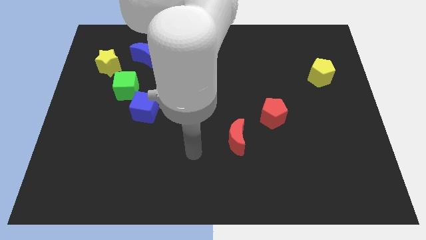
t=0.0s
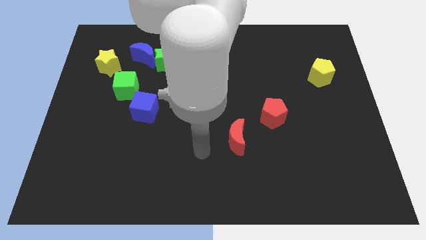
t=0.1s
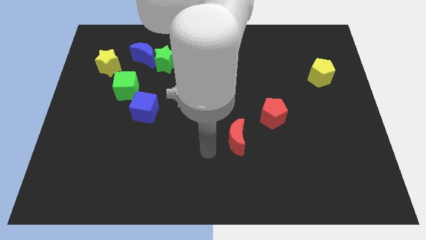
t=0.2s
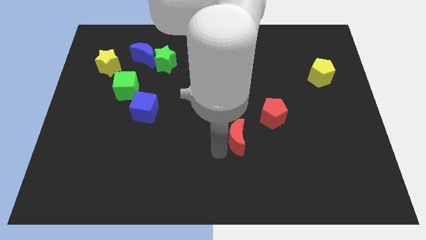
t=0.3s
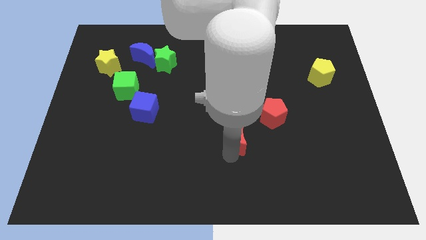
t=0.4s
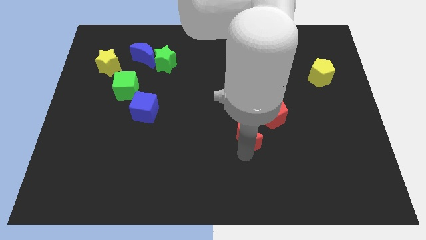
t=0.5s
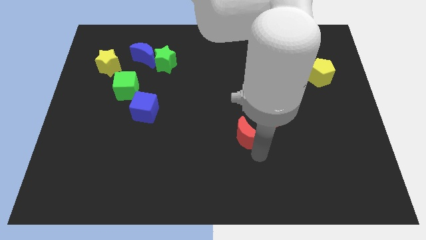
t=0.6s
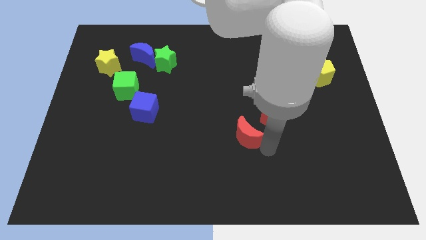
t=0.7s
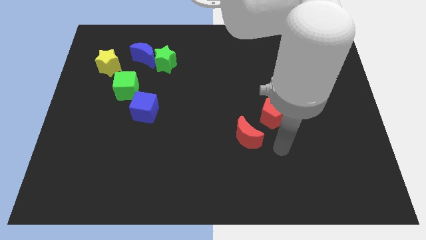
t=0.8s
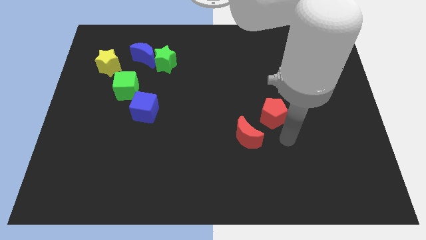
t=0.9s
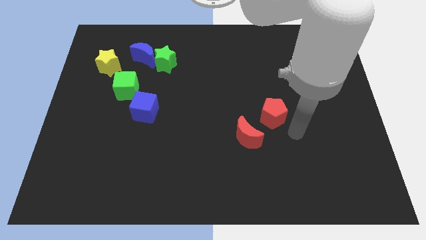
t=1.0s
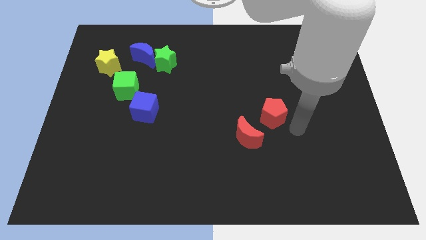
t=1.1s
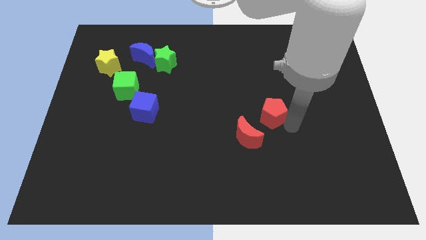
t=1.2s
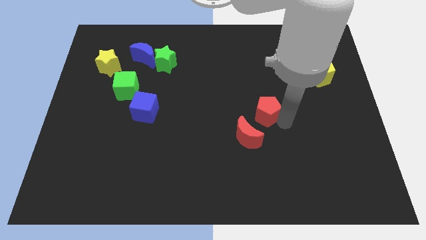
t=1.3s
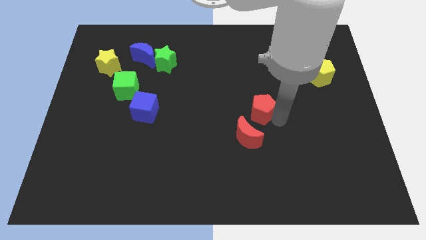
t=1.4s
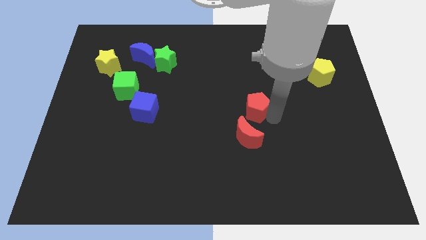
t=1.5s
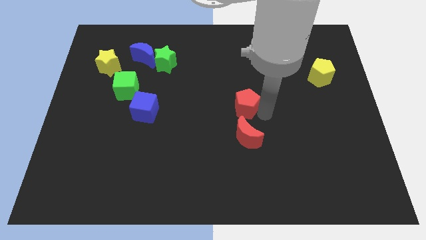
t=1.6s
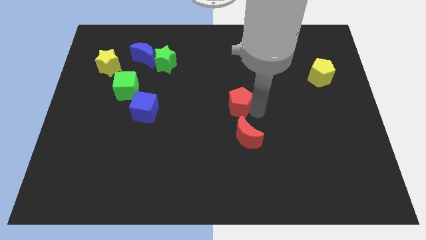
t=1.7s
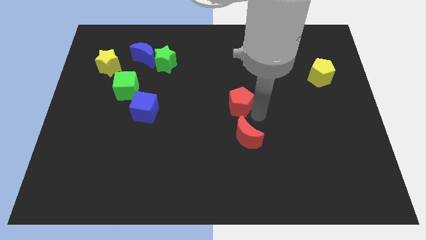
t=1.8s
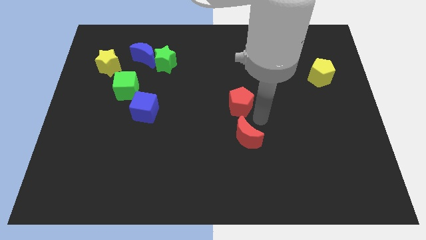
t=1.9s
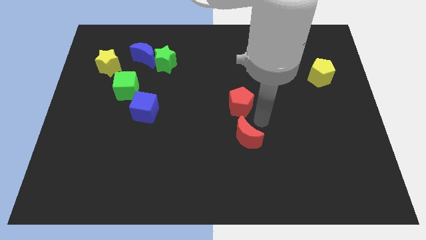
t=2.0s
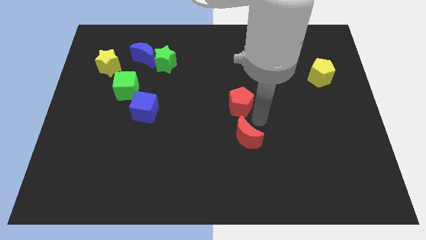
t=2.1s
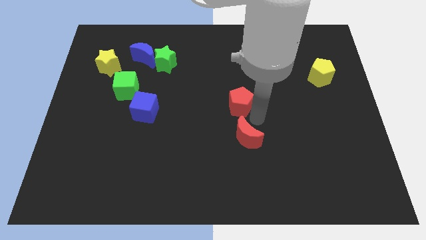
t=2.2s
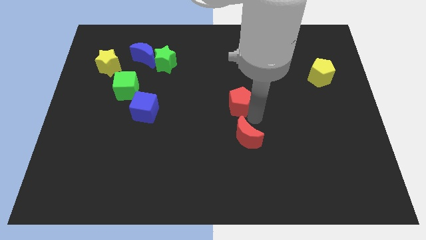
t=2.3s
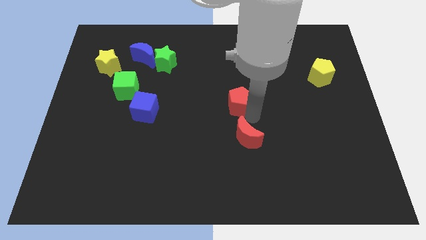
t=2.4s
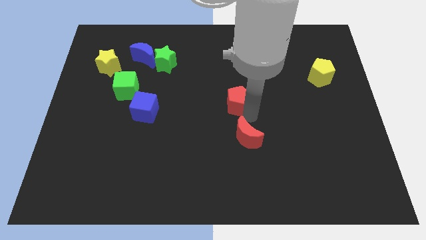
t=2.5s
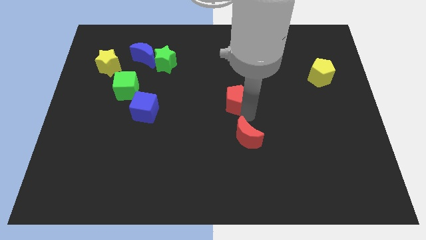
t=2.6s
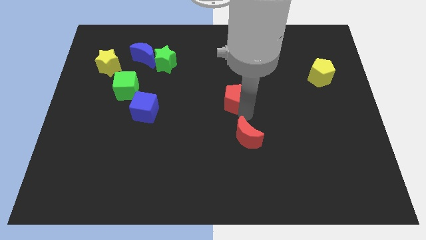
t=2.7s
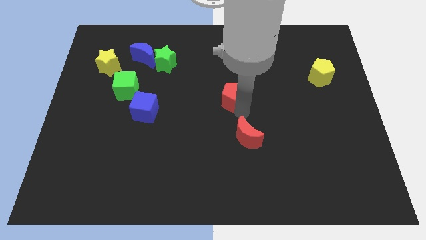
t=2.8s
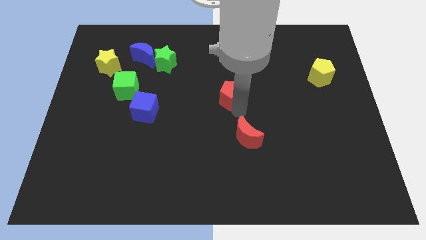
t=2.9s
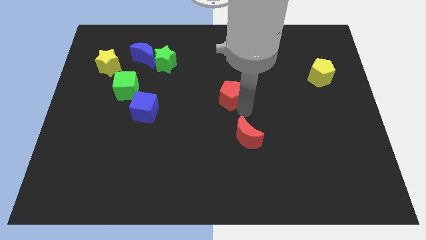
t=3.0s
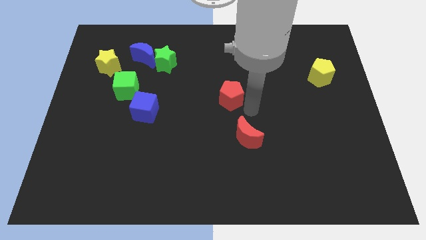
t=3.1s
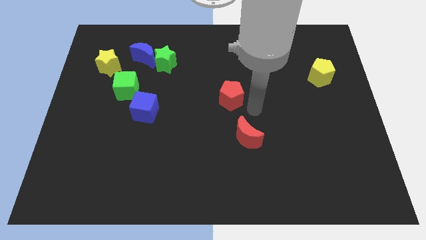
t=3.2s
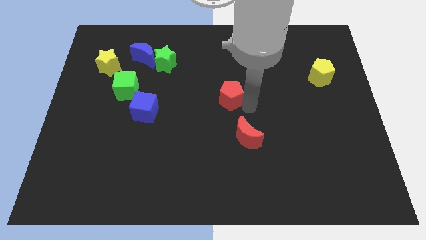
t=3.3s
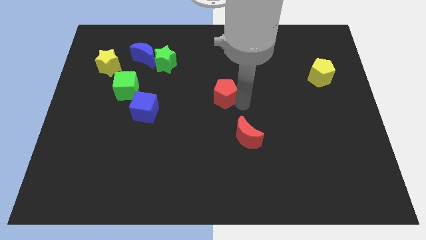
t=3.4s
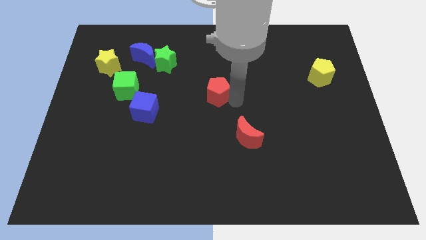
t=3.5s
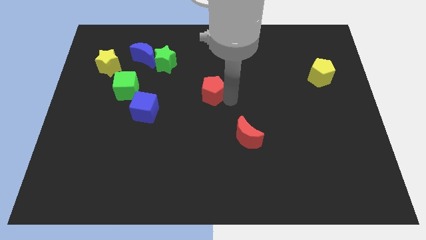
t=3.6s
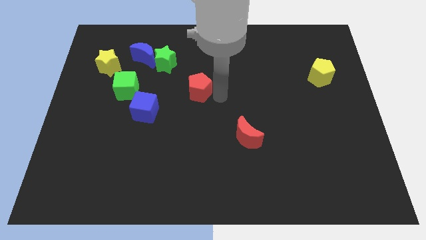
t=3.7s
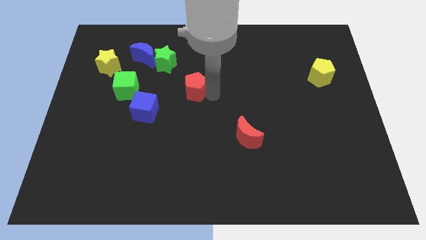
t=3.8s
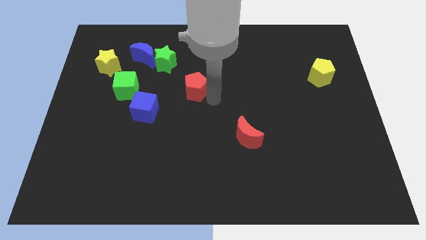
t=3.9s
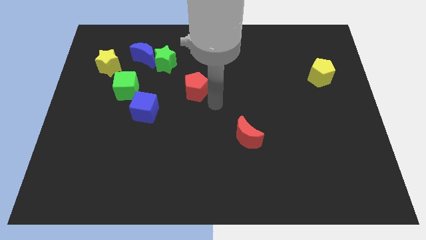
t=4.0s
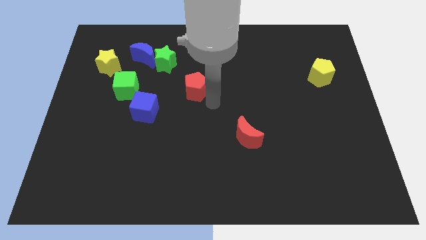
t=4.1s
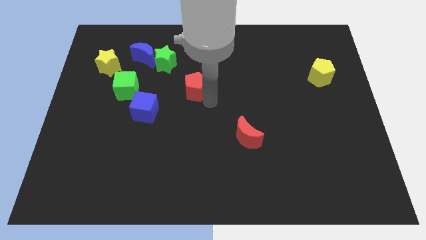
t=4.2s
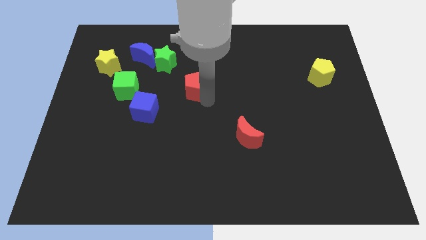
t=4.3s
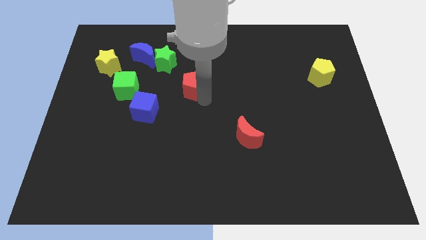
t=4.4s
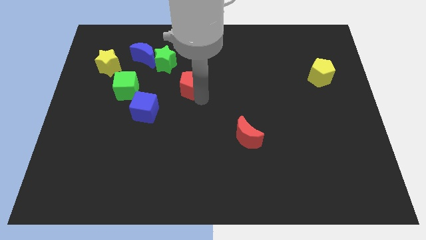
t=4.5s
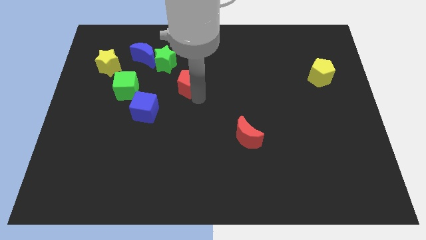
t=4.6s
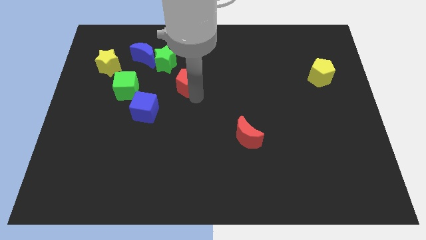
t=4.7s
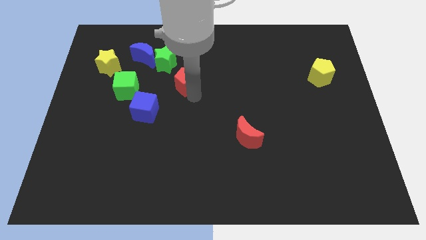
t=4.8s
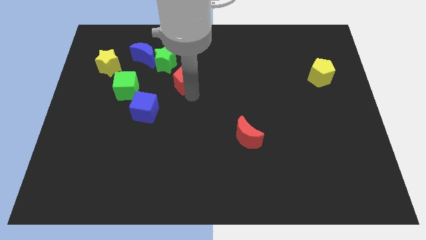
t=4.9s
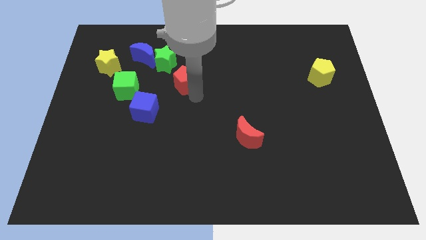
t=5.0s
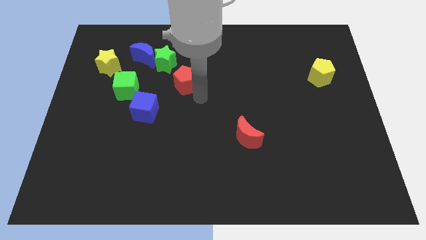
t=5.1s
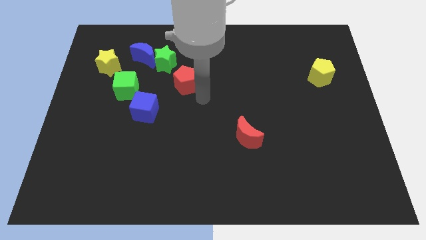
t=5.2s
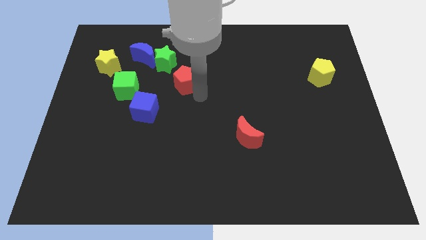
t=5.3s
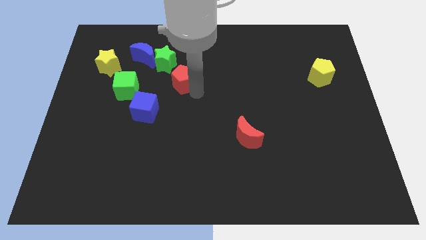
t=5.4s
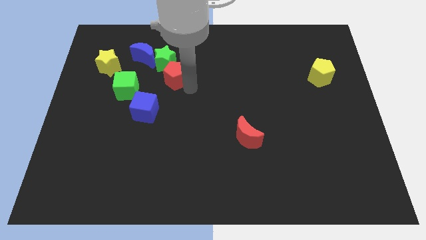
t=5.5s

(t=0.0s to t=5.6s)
put the red pentagon next to the green star

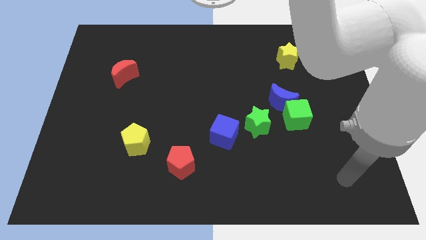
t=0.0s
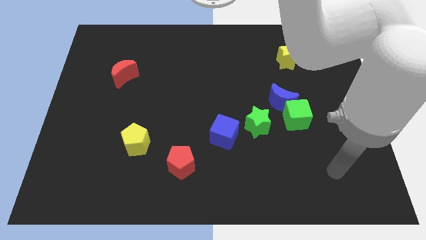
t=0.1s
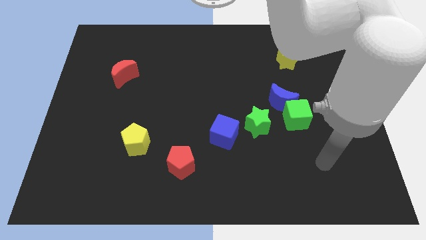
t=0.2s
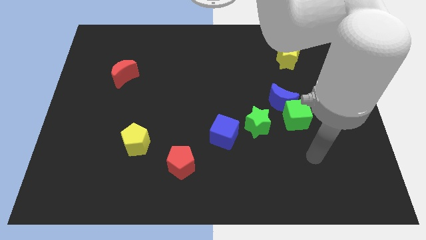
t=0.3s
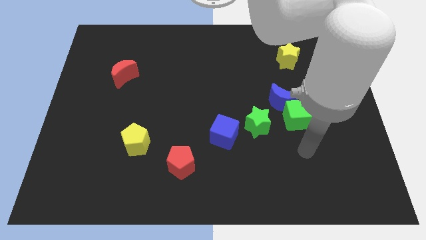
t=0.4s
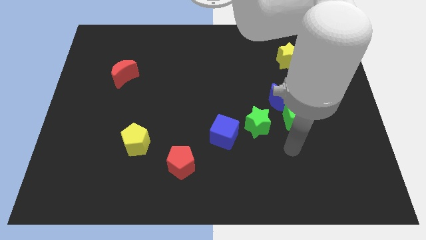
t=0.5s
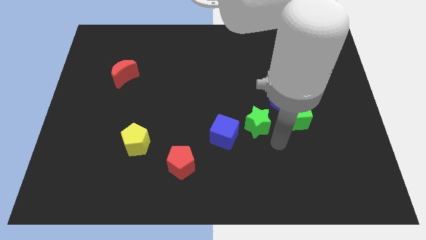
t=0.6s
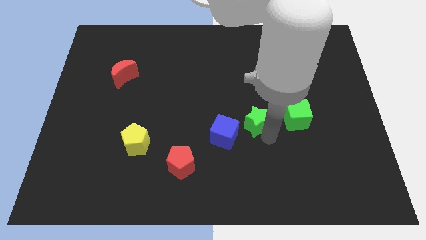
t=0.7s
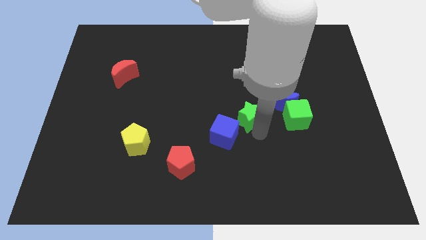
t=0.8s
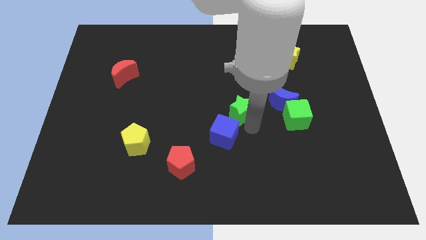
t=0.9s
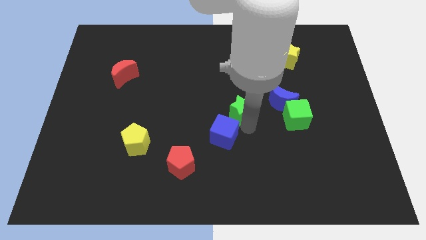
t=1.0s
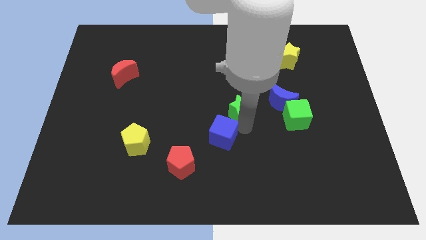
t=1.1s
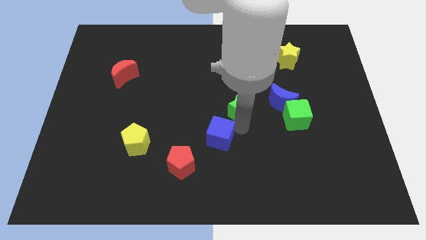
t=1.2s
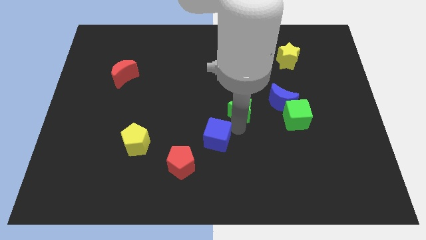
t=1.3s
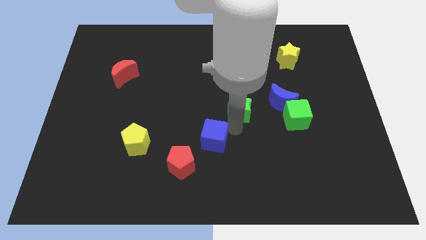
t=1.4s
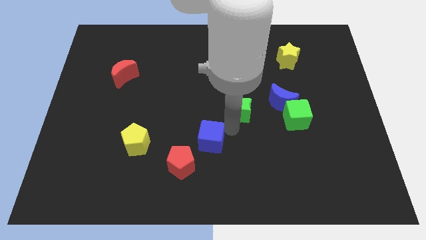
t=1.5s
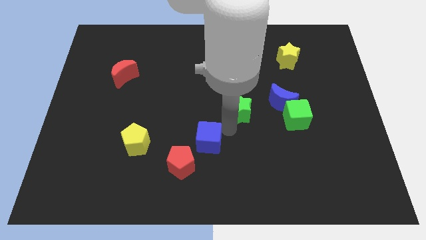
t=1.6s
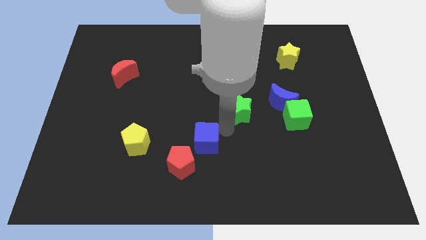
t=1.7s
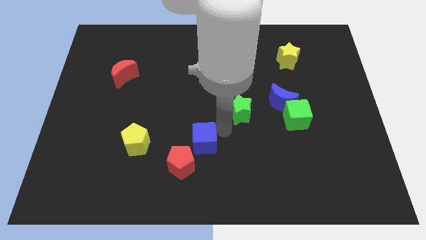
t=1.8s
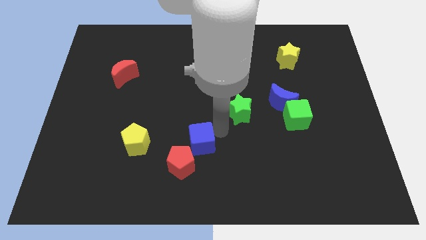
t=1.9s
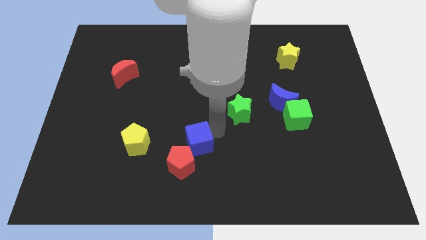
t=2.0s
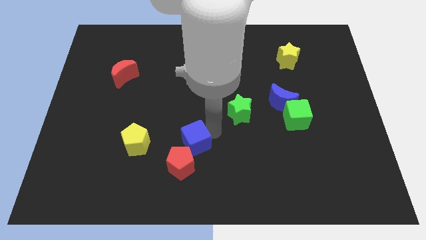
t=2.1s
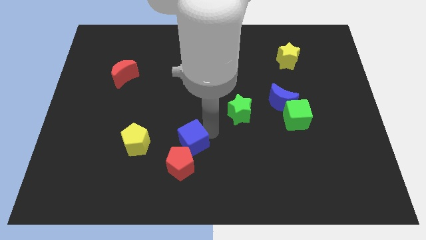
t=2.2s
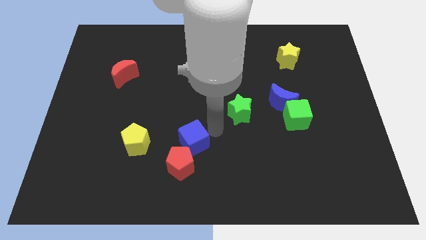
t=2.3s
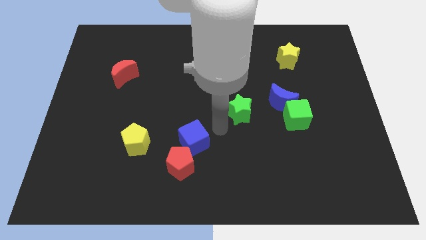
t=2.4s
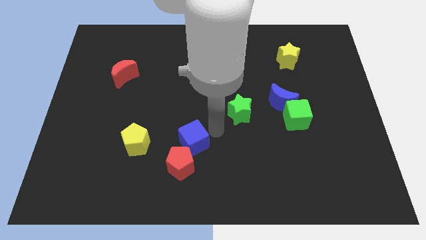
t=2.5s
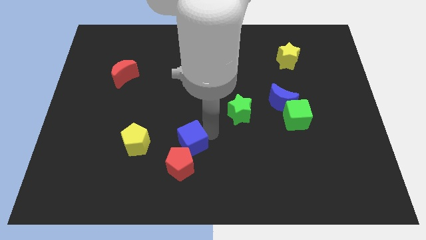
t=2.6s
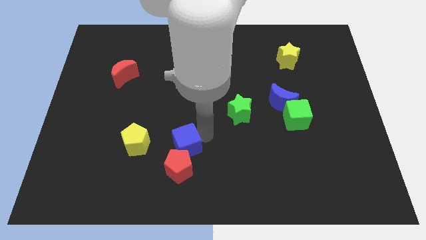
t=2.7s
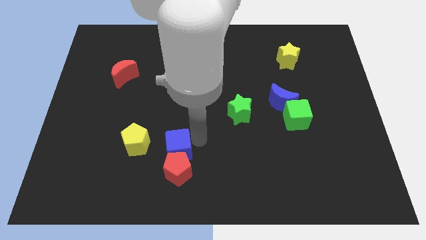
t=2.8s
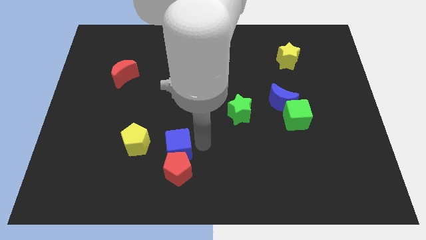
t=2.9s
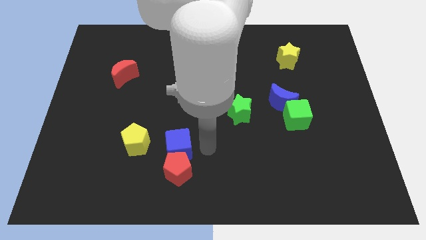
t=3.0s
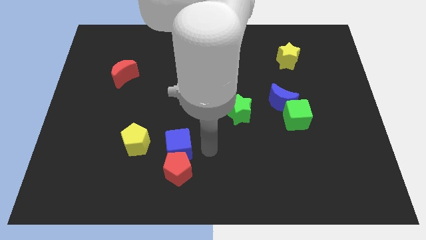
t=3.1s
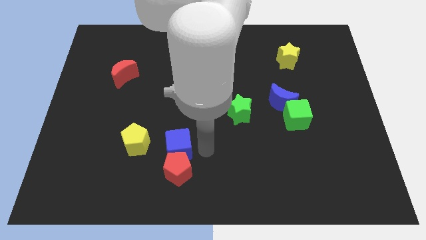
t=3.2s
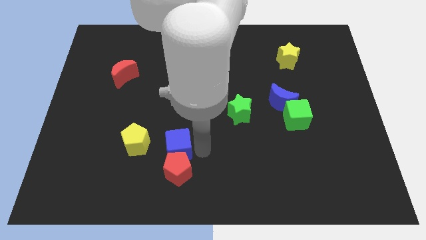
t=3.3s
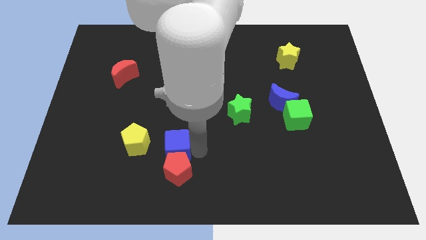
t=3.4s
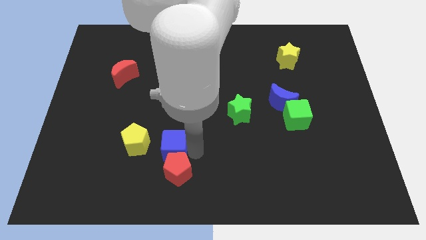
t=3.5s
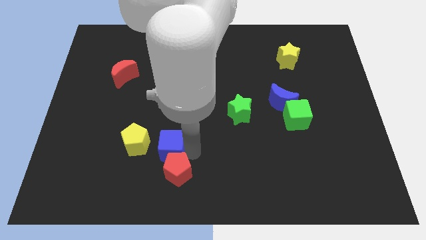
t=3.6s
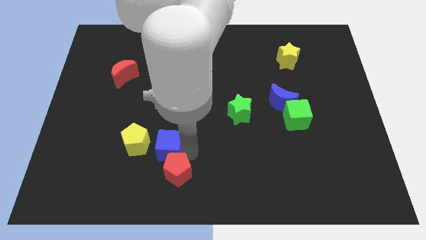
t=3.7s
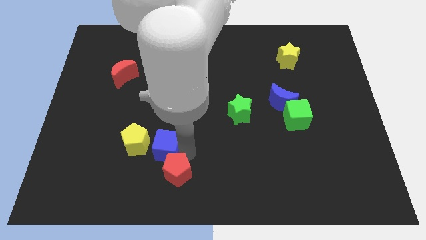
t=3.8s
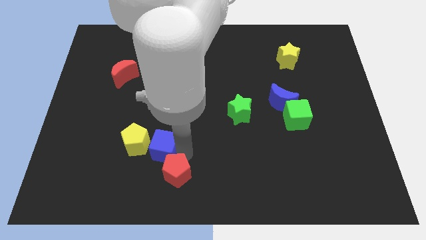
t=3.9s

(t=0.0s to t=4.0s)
slide the blue cube to the yellow pentagon
